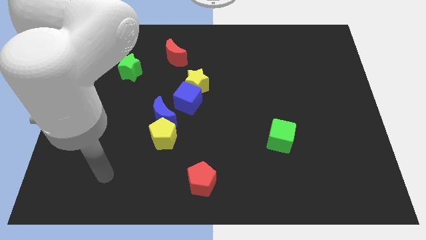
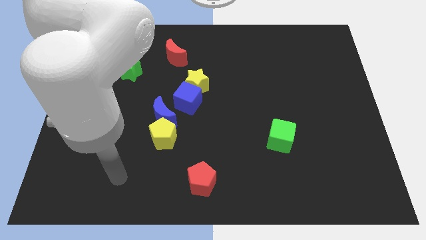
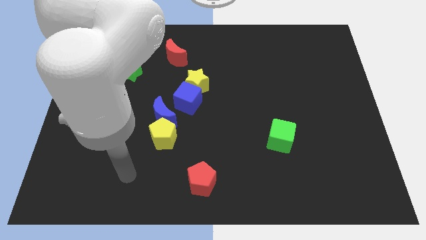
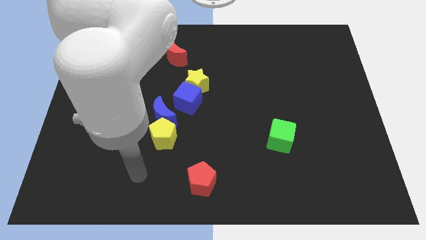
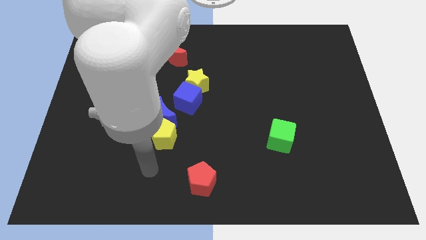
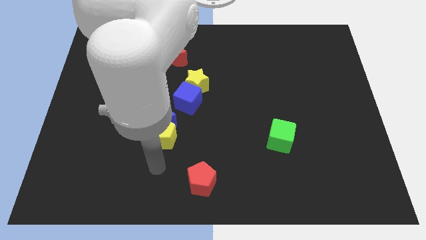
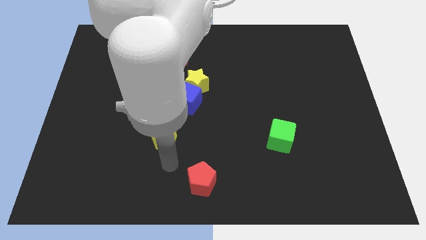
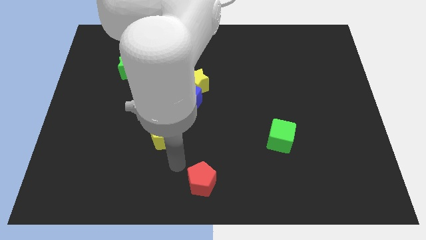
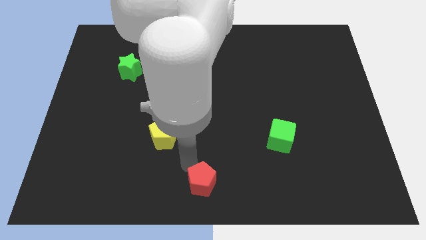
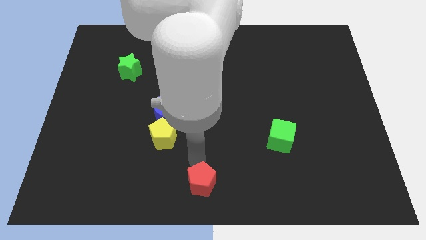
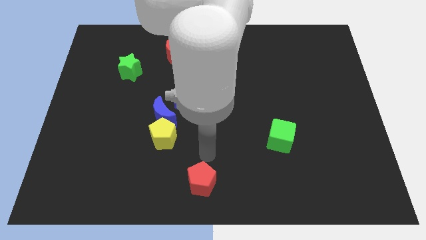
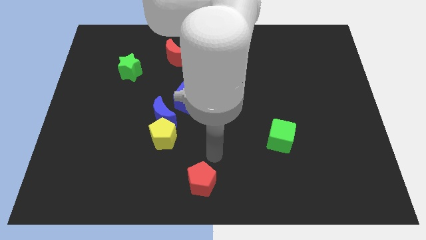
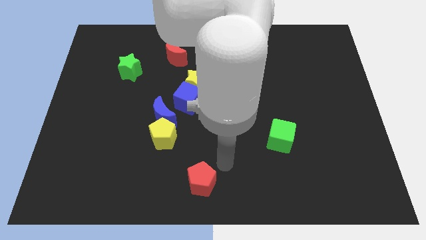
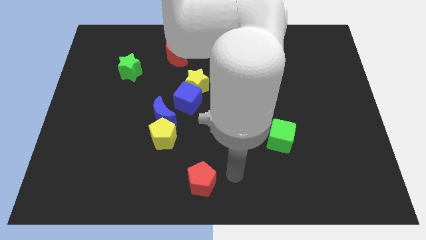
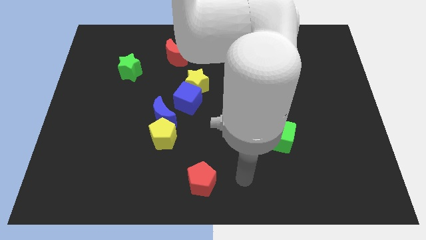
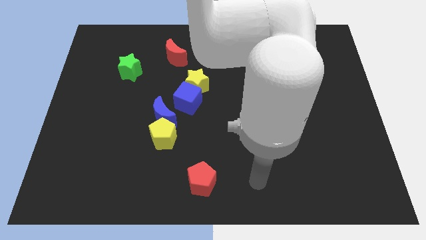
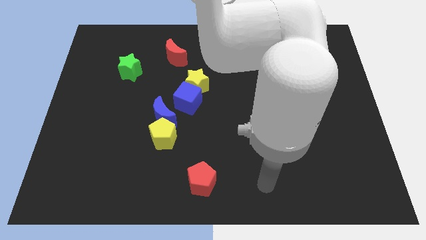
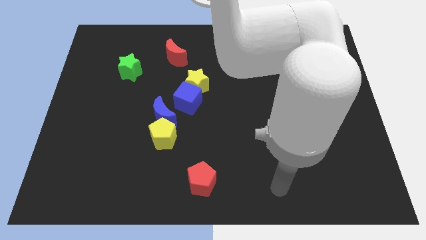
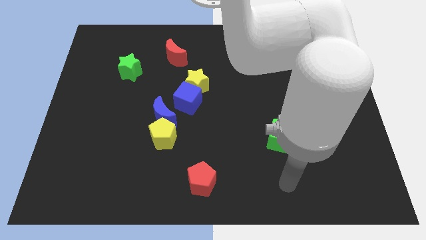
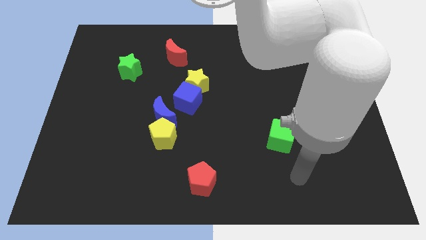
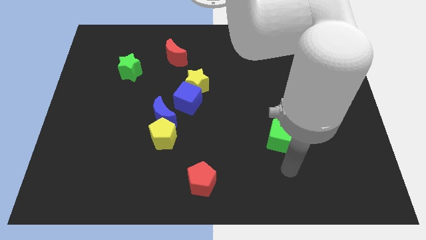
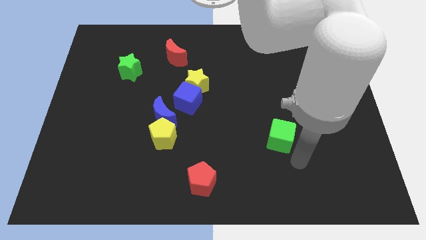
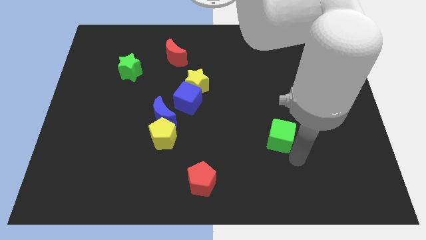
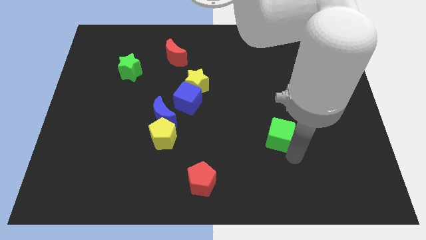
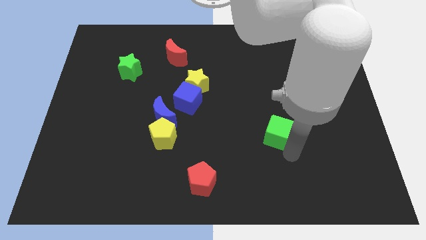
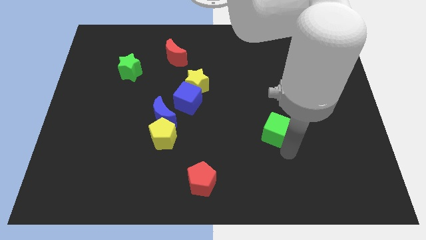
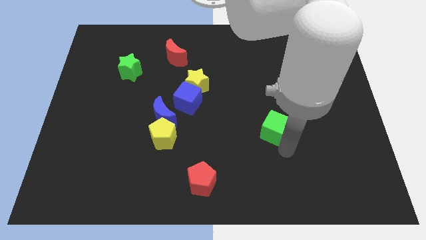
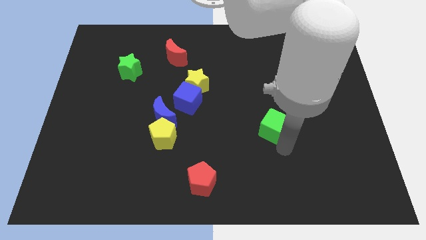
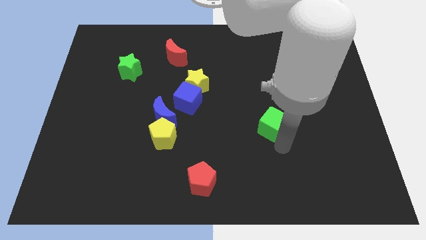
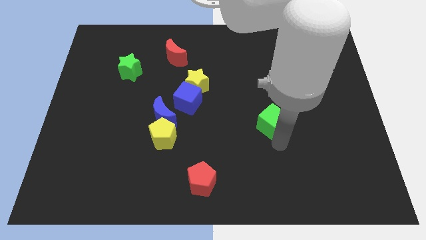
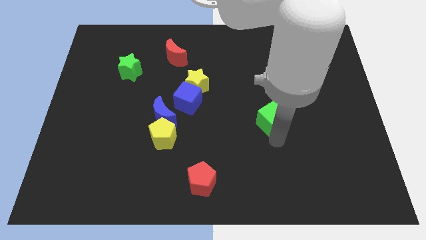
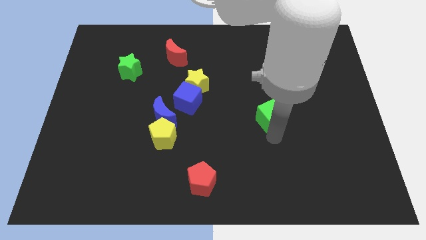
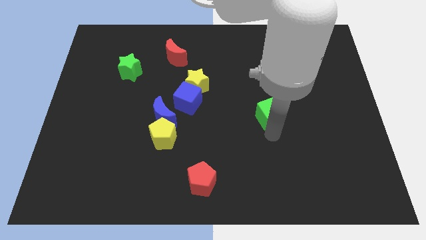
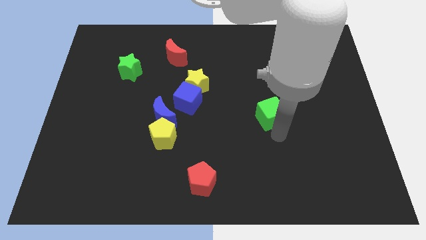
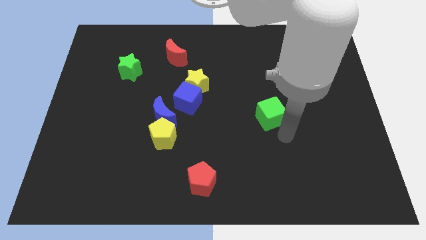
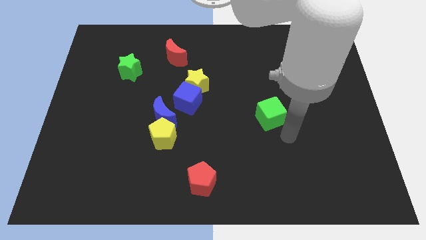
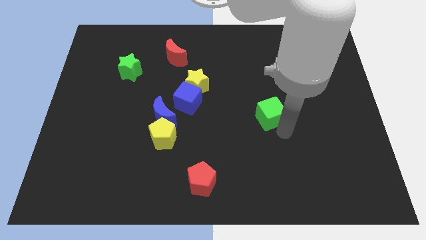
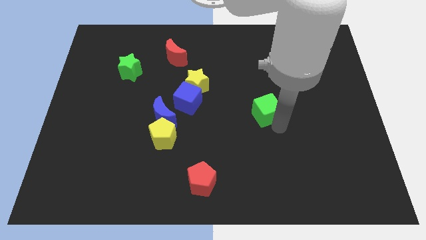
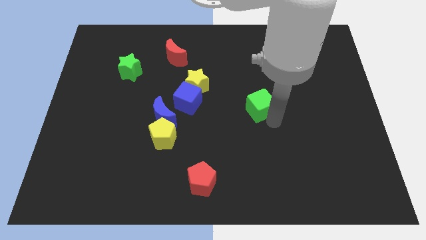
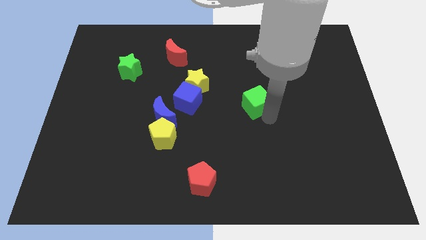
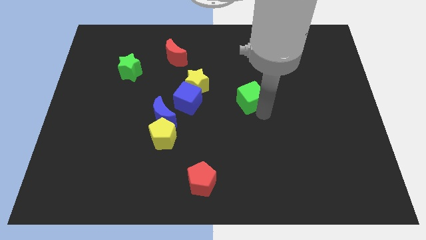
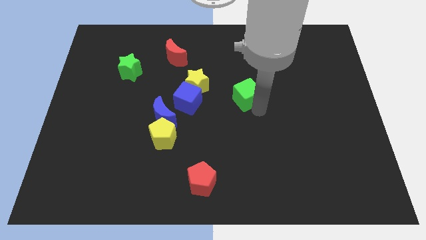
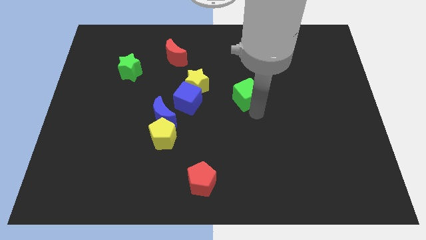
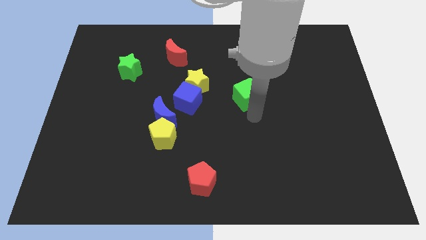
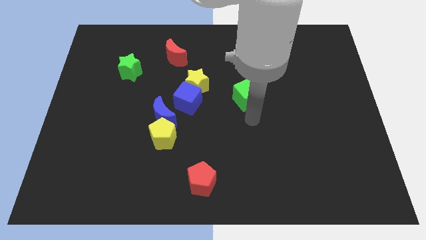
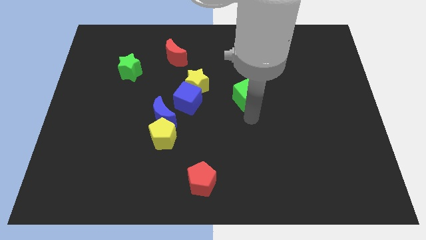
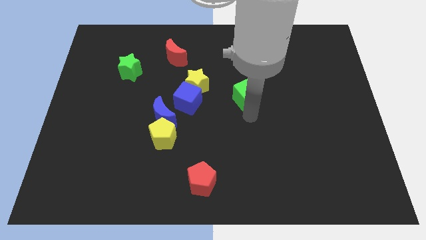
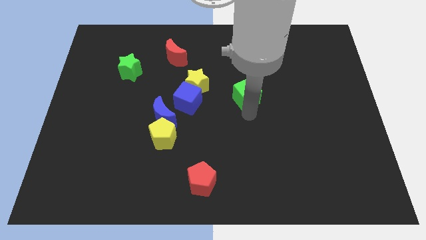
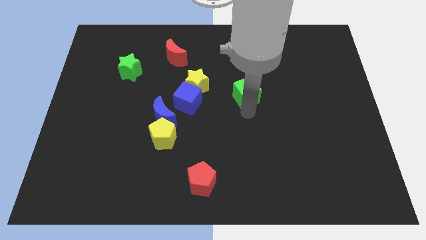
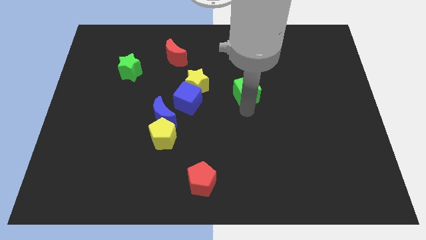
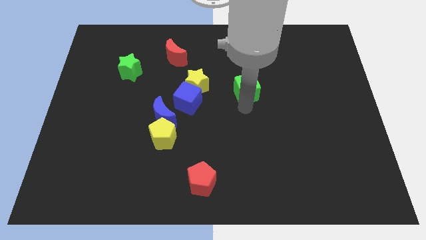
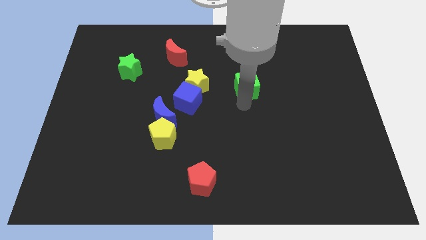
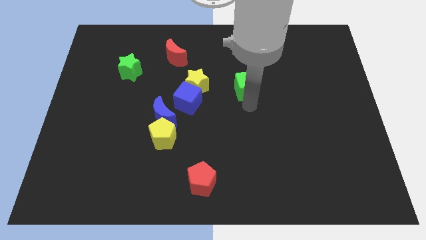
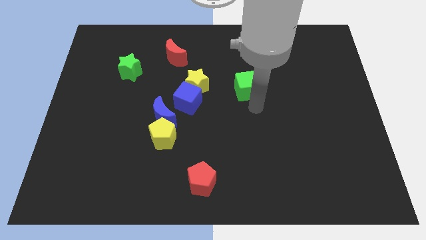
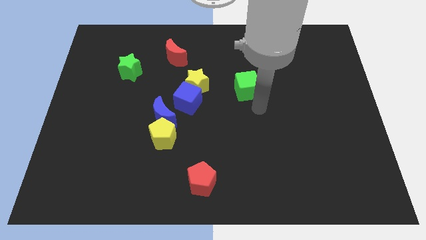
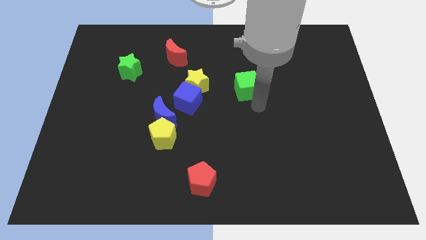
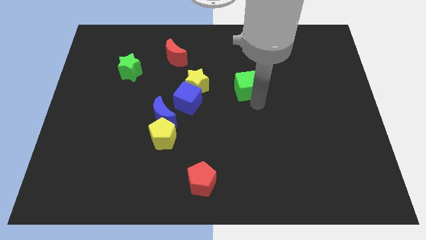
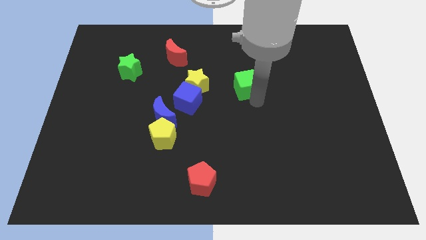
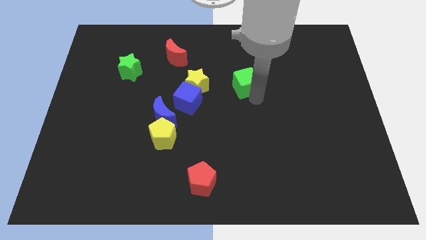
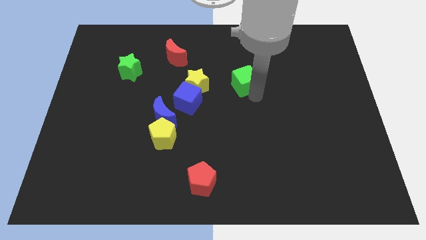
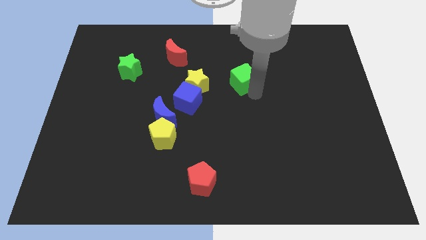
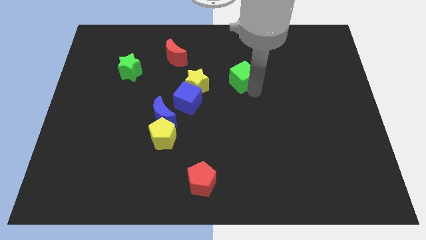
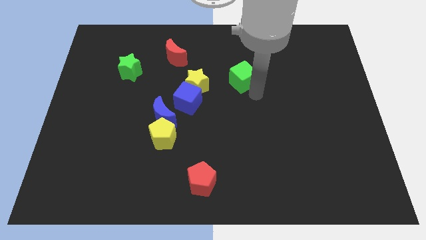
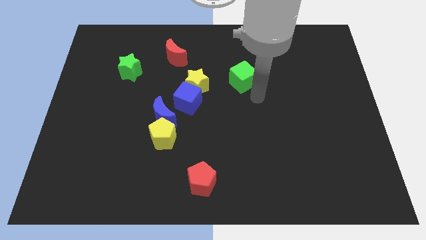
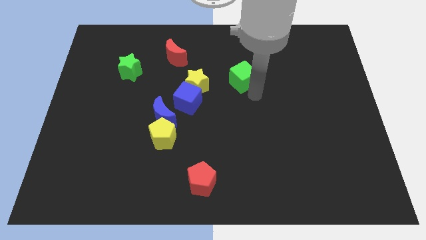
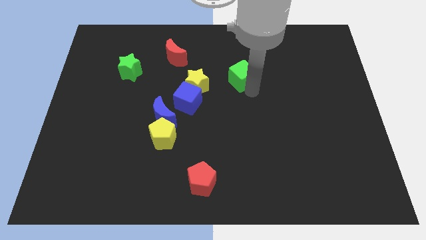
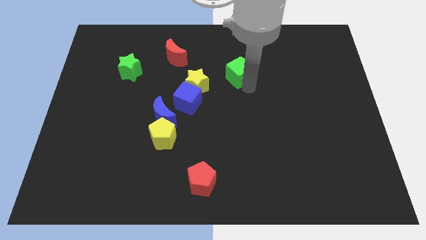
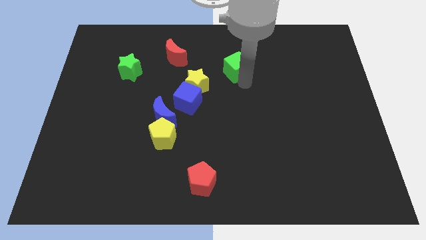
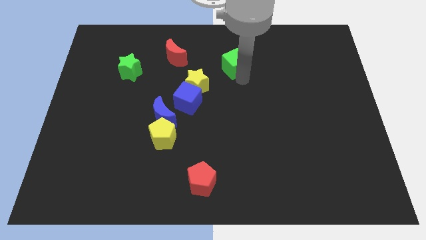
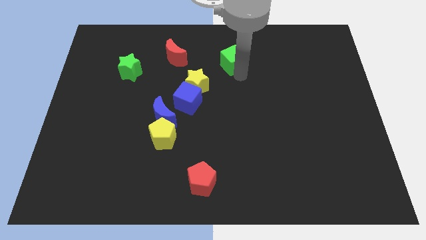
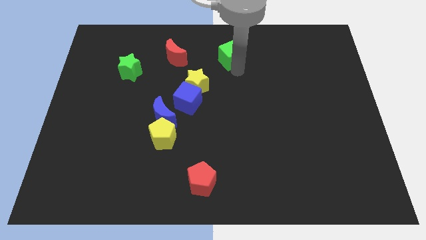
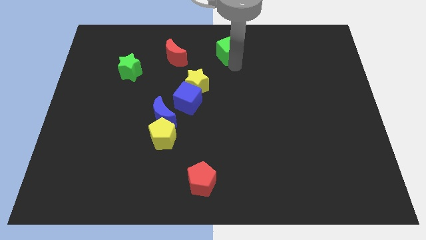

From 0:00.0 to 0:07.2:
slide the green cube to the top side
